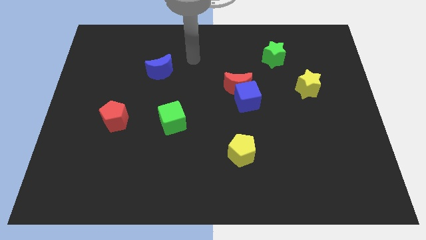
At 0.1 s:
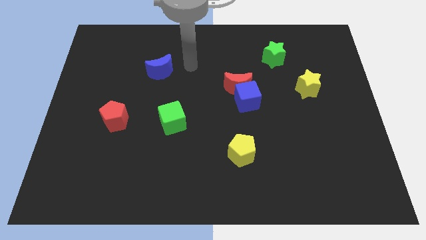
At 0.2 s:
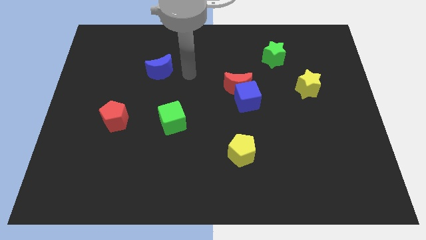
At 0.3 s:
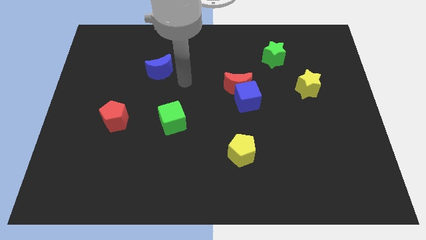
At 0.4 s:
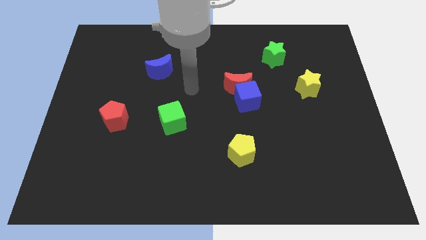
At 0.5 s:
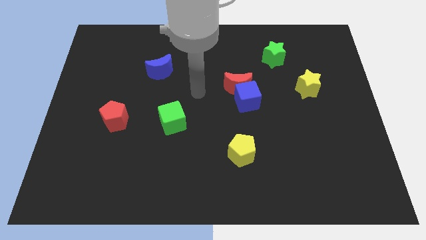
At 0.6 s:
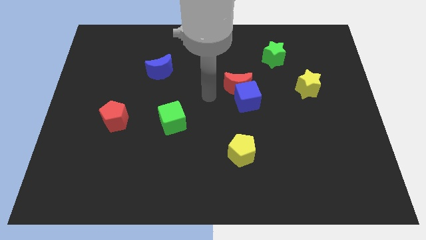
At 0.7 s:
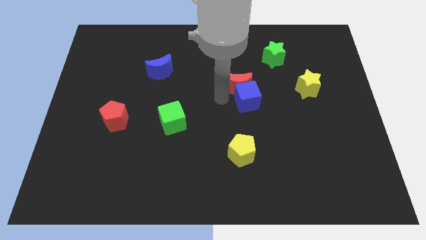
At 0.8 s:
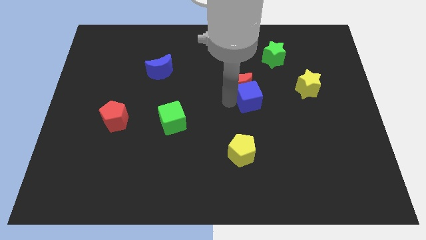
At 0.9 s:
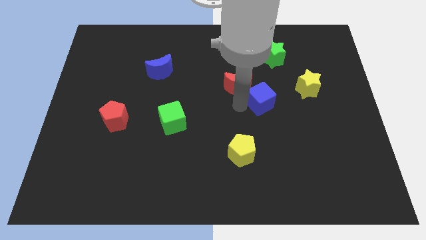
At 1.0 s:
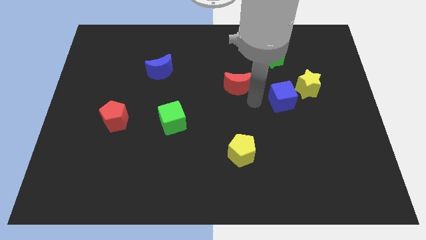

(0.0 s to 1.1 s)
separate the red moon from the blue cube

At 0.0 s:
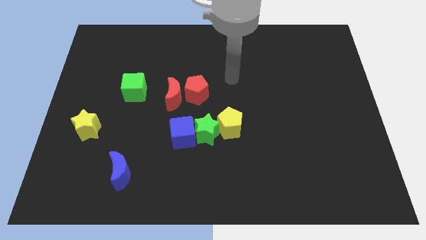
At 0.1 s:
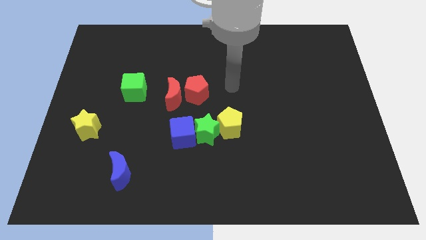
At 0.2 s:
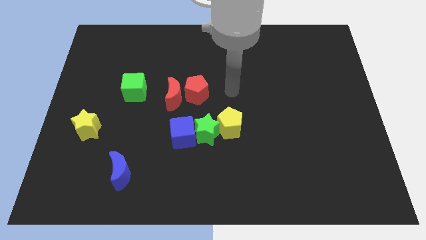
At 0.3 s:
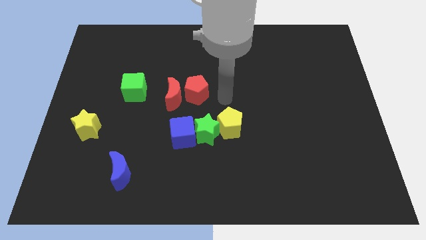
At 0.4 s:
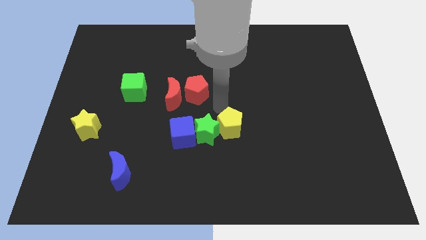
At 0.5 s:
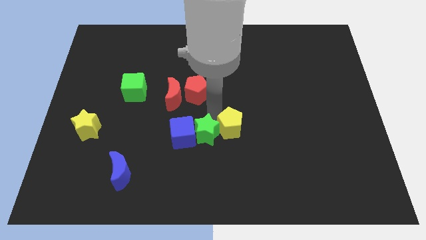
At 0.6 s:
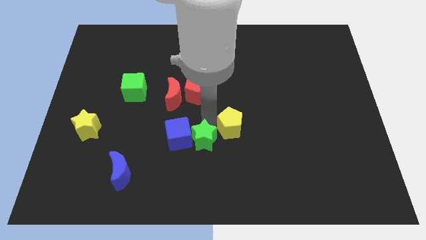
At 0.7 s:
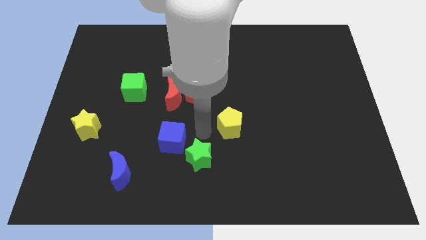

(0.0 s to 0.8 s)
pull the yellow pentagon apart from the green star

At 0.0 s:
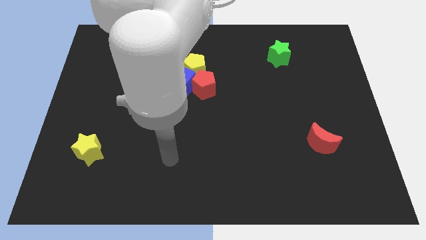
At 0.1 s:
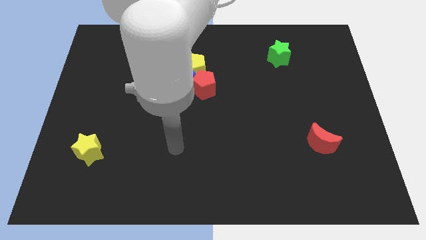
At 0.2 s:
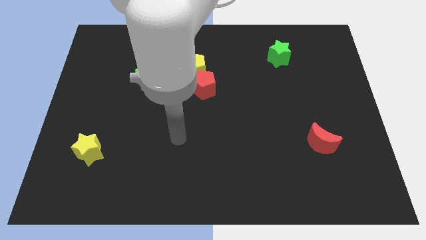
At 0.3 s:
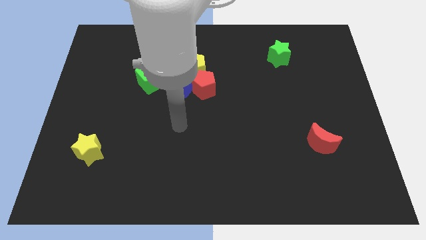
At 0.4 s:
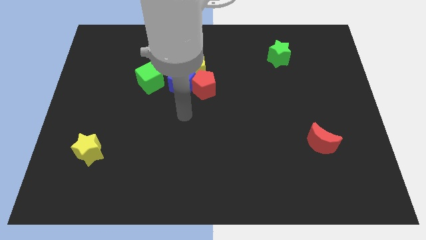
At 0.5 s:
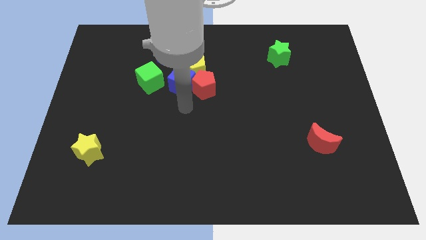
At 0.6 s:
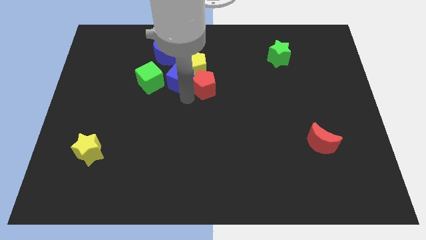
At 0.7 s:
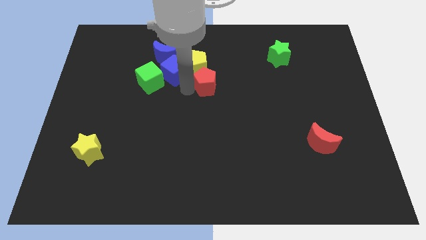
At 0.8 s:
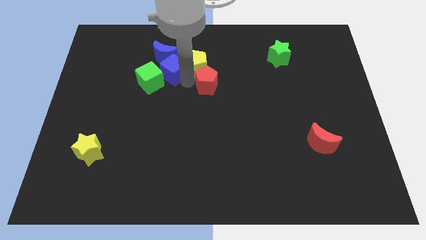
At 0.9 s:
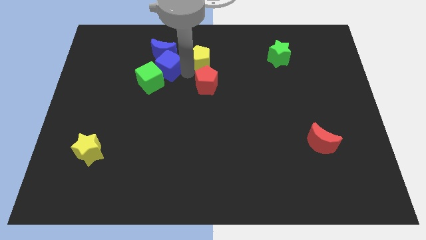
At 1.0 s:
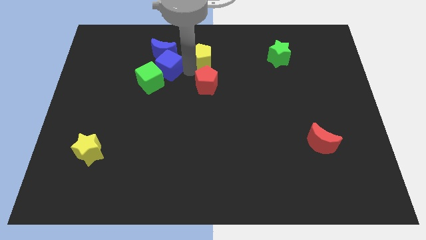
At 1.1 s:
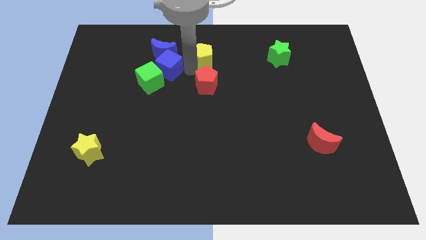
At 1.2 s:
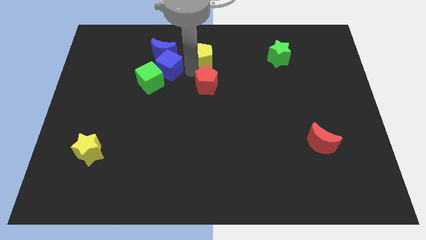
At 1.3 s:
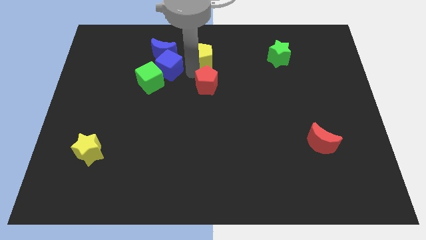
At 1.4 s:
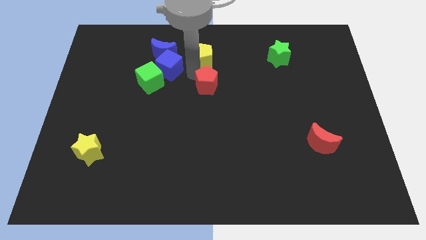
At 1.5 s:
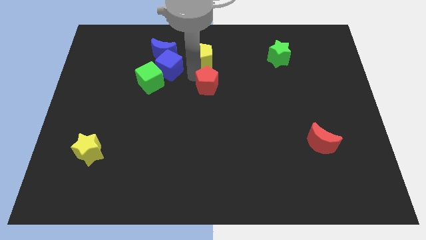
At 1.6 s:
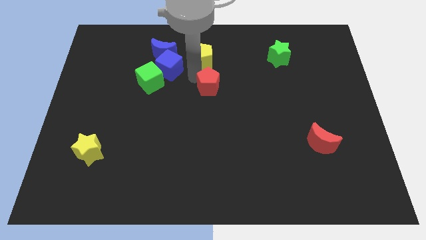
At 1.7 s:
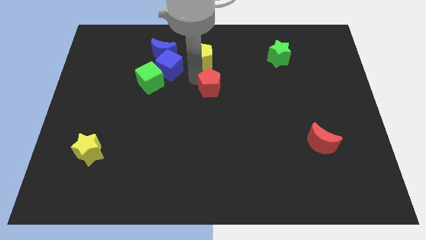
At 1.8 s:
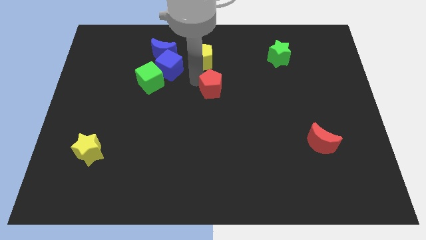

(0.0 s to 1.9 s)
separate the red pentagon from the blue cube and yellow pentagon

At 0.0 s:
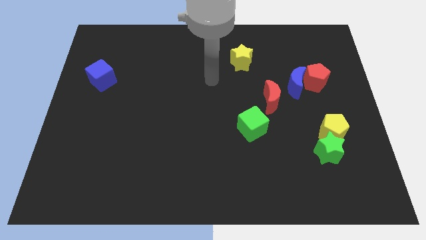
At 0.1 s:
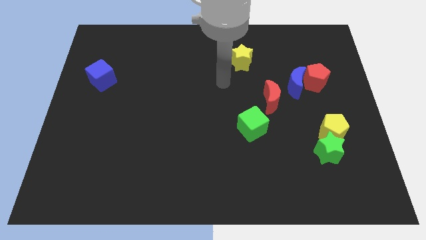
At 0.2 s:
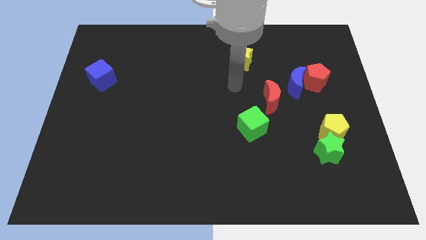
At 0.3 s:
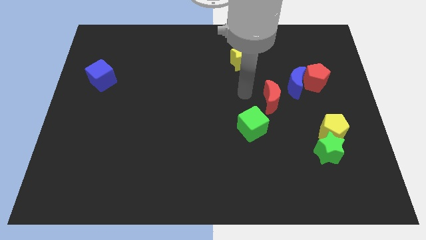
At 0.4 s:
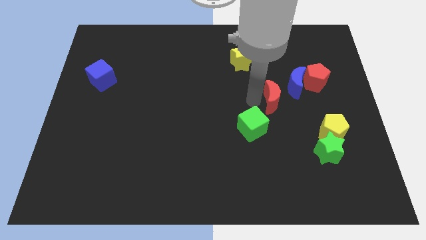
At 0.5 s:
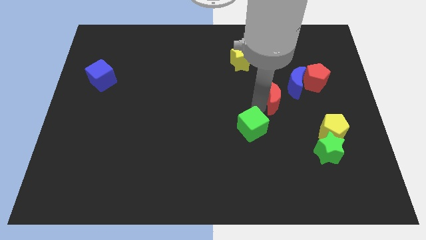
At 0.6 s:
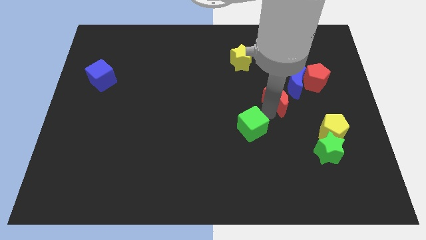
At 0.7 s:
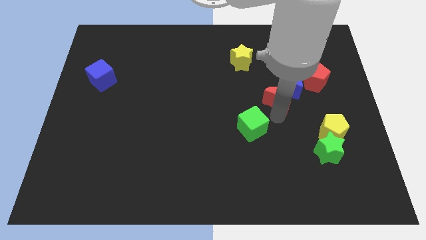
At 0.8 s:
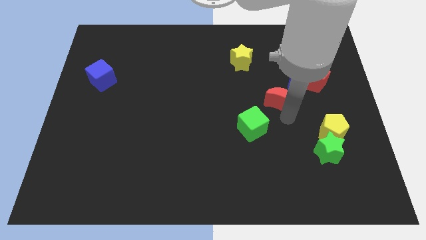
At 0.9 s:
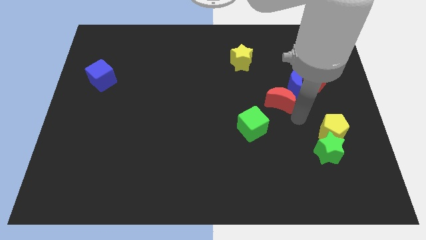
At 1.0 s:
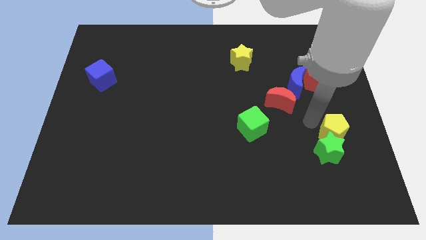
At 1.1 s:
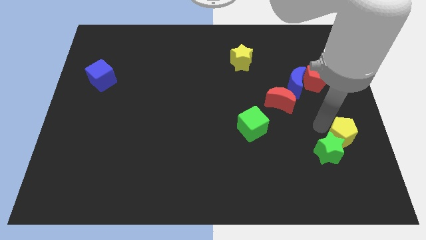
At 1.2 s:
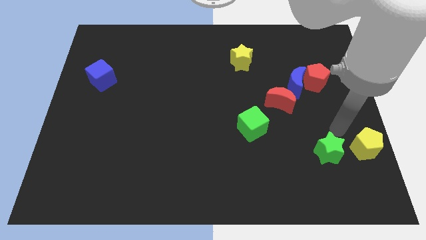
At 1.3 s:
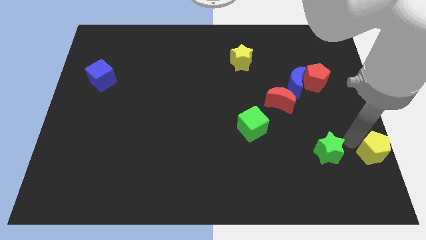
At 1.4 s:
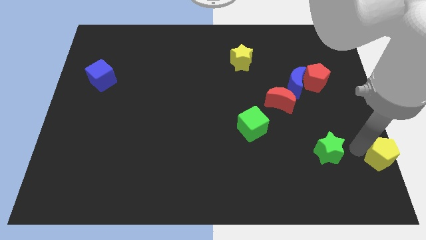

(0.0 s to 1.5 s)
move the green star away from the yellow pentagon

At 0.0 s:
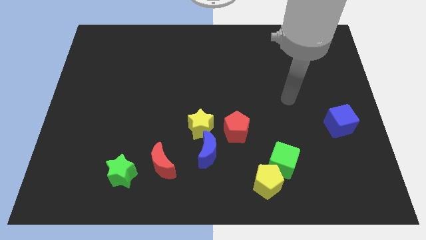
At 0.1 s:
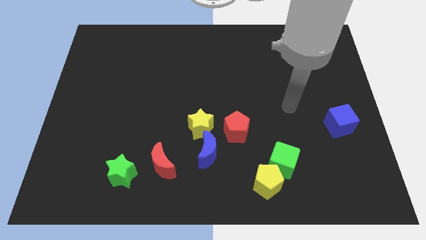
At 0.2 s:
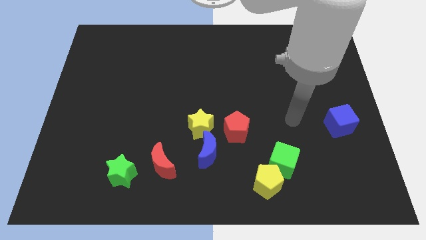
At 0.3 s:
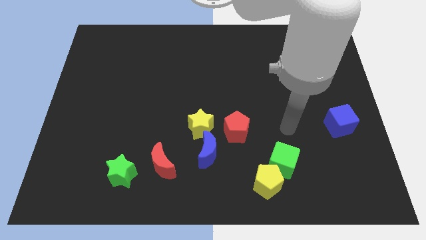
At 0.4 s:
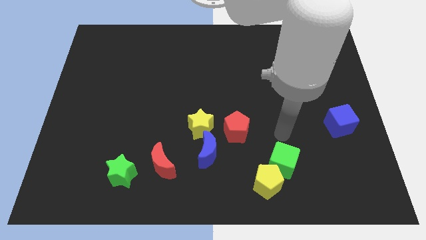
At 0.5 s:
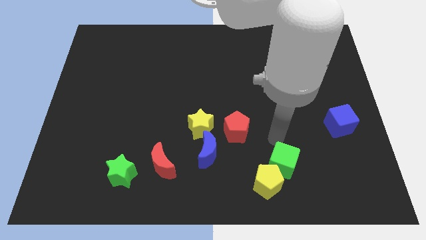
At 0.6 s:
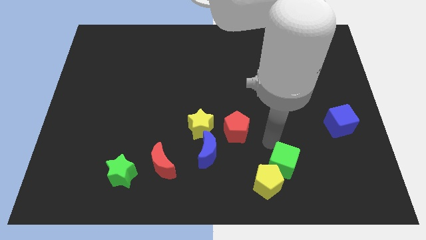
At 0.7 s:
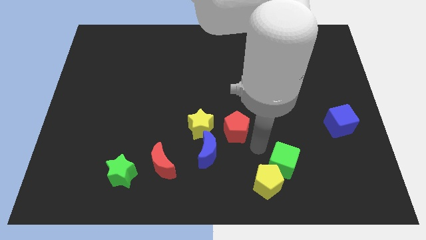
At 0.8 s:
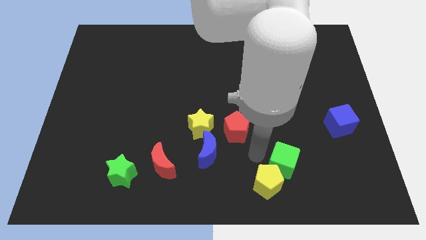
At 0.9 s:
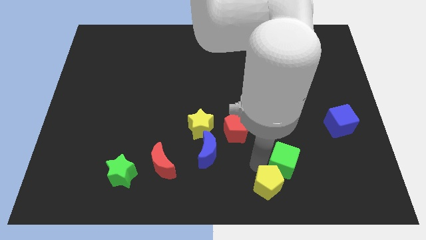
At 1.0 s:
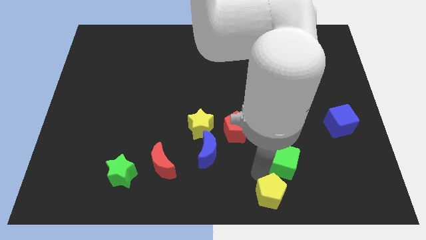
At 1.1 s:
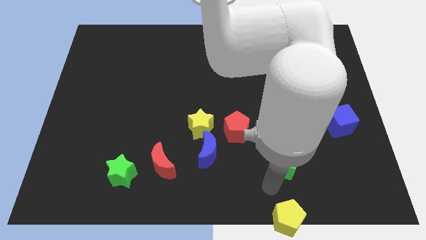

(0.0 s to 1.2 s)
move the green cube away from the yellow pentagon

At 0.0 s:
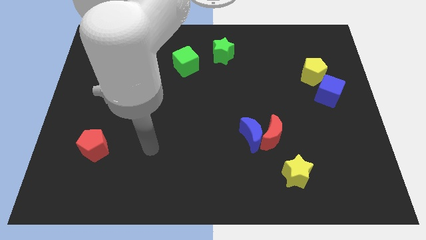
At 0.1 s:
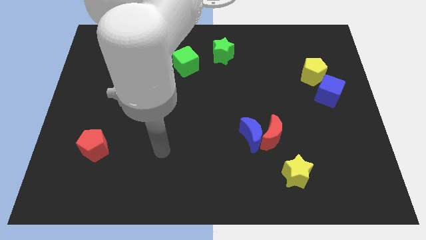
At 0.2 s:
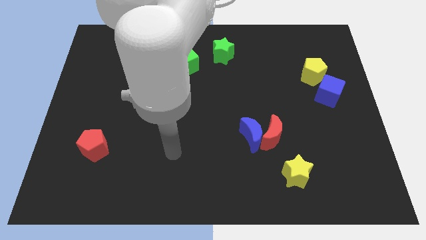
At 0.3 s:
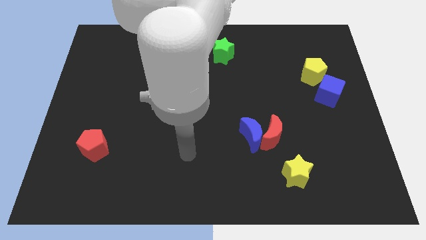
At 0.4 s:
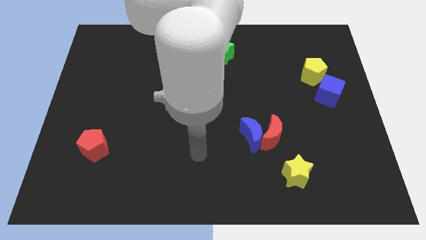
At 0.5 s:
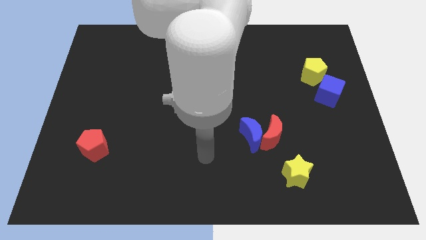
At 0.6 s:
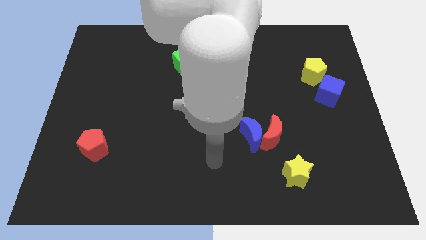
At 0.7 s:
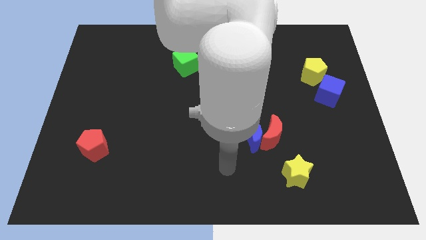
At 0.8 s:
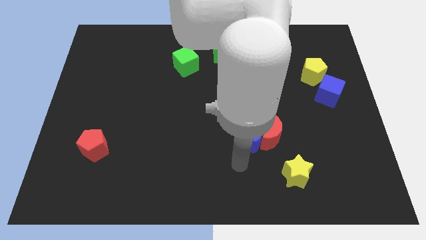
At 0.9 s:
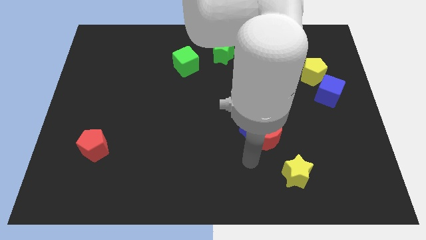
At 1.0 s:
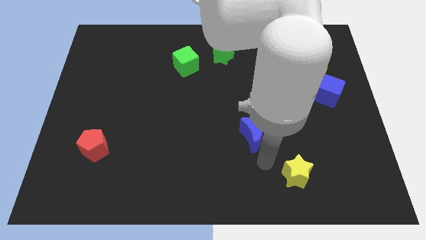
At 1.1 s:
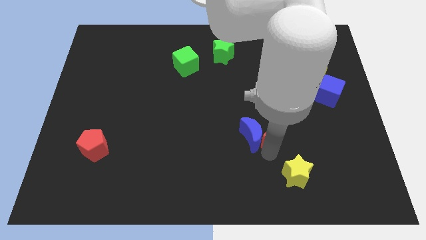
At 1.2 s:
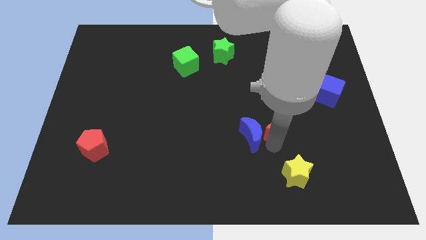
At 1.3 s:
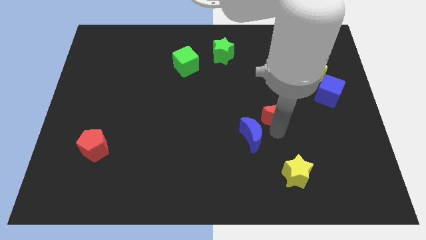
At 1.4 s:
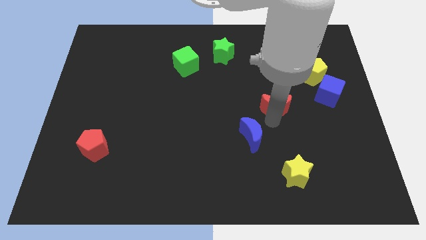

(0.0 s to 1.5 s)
separate the blue moon from the red moon

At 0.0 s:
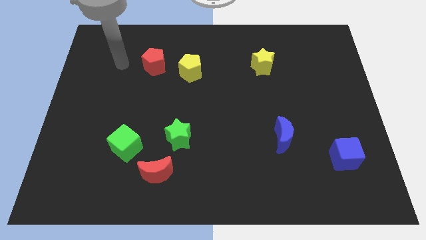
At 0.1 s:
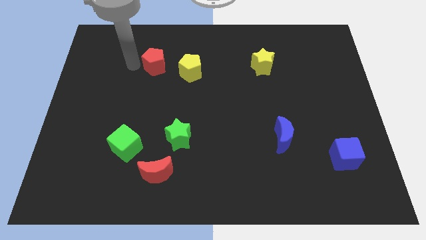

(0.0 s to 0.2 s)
pull the red pentagon apart from the yellow pentagon

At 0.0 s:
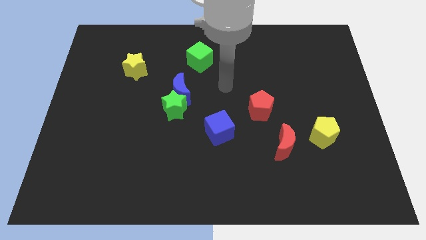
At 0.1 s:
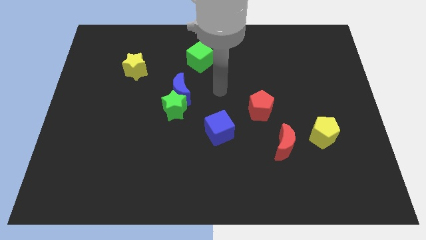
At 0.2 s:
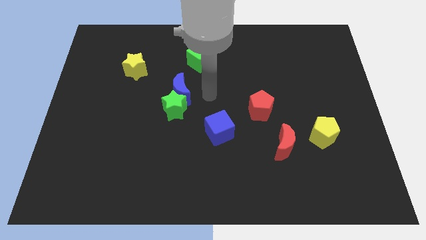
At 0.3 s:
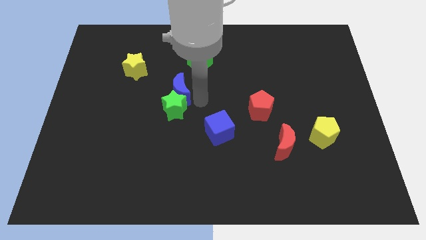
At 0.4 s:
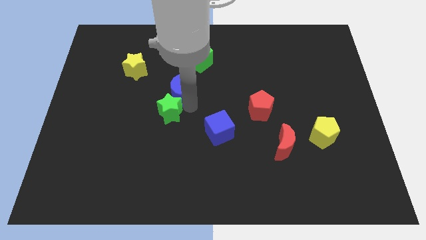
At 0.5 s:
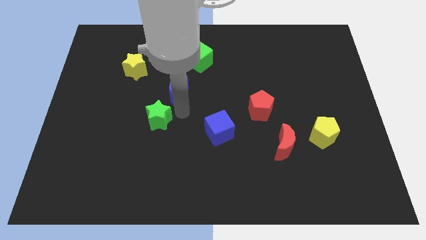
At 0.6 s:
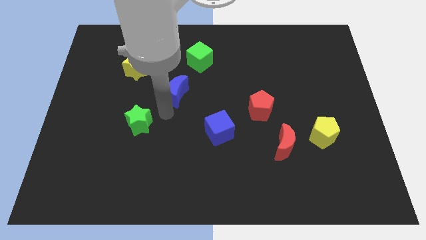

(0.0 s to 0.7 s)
move the blue moon away from the green star

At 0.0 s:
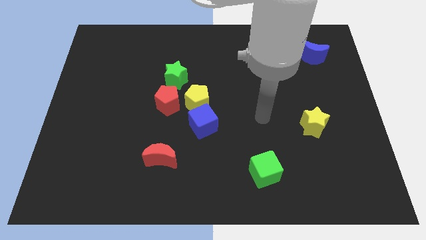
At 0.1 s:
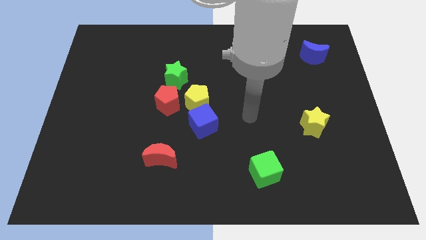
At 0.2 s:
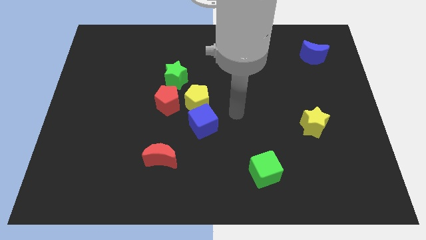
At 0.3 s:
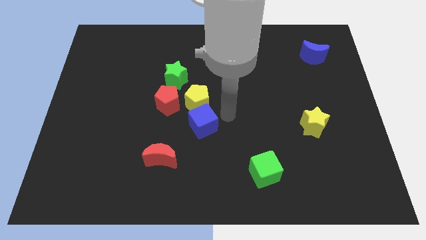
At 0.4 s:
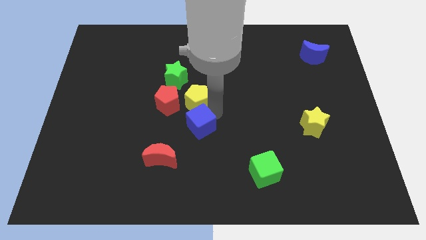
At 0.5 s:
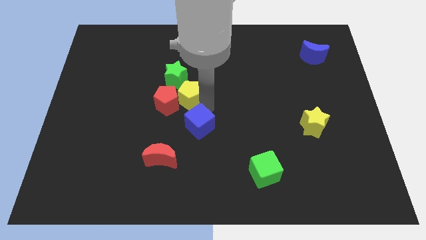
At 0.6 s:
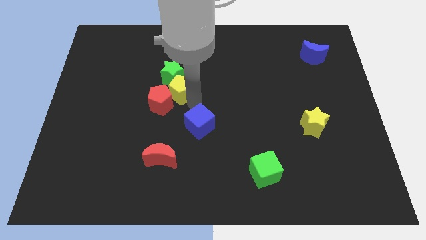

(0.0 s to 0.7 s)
separate the blue cube from the yellow pentagon
